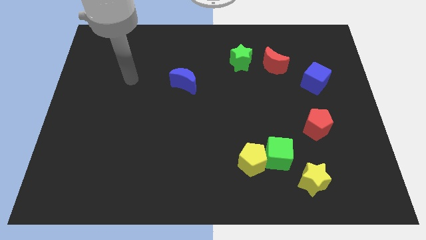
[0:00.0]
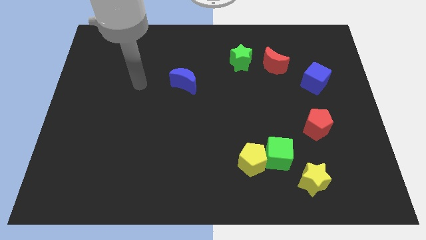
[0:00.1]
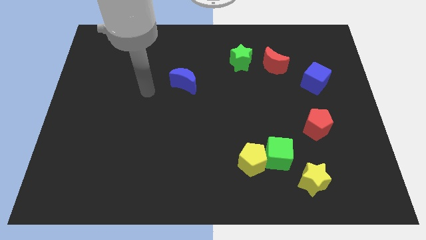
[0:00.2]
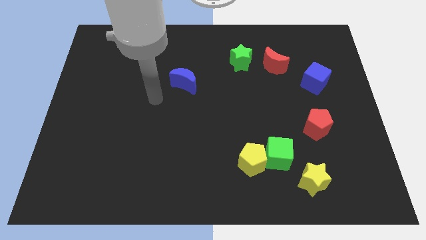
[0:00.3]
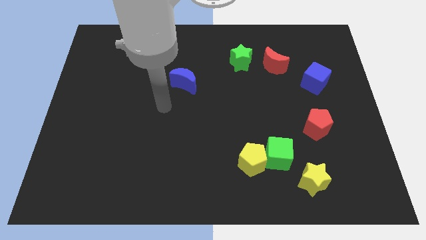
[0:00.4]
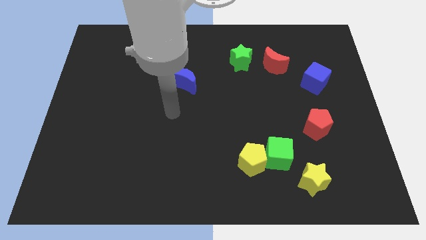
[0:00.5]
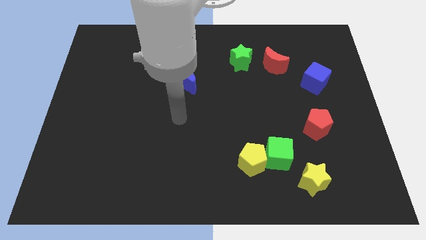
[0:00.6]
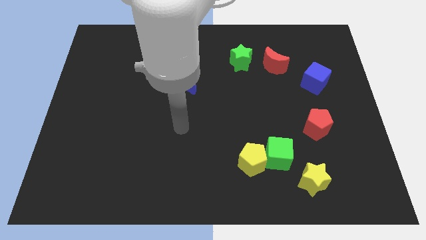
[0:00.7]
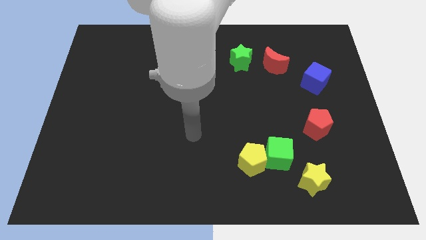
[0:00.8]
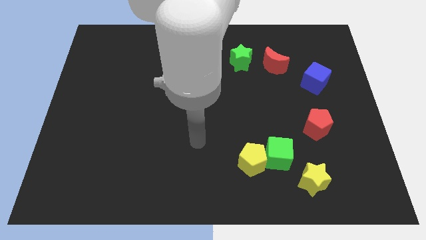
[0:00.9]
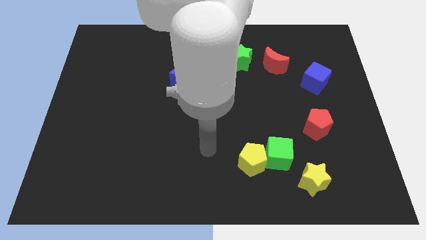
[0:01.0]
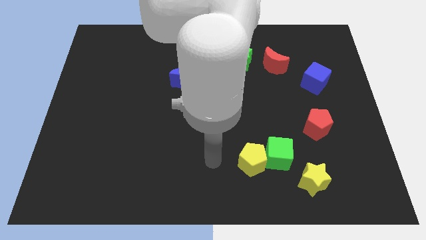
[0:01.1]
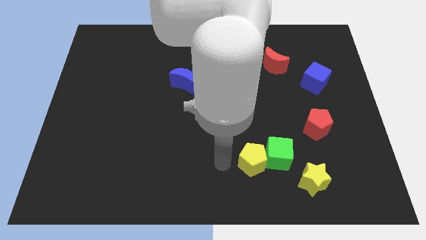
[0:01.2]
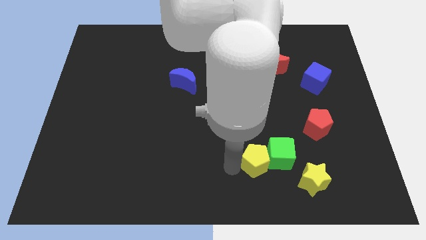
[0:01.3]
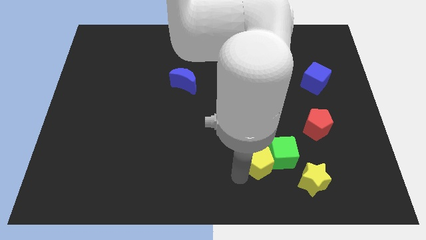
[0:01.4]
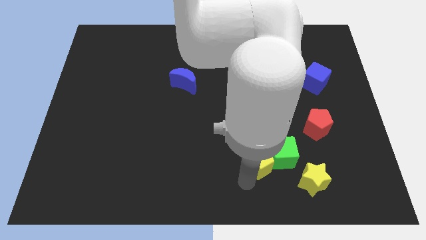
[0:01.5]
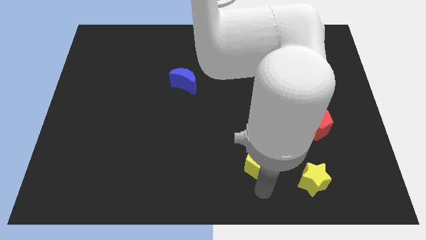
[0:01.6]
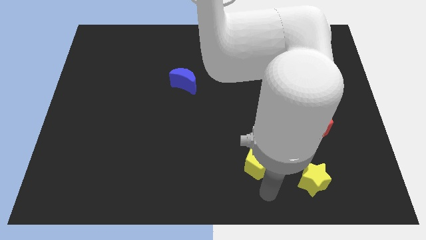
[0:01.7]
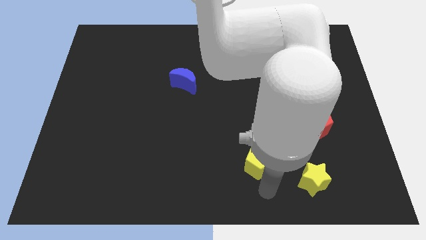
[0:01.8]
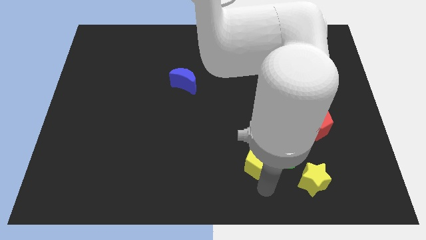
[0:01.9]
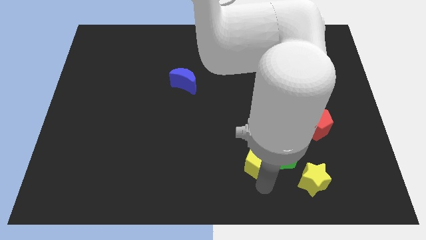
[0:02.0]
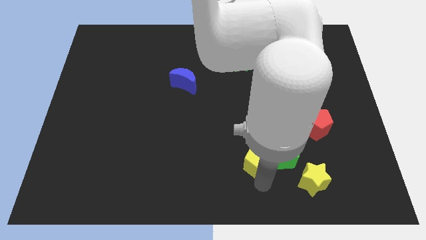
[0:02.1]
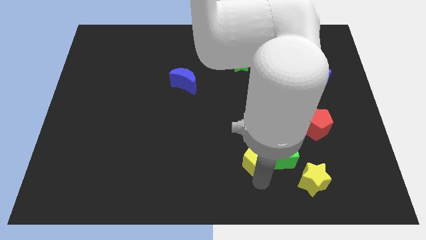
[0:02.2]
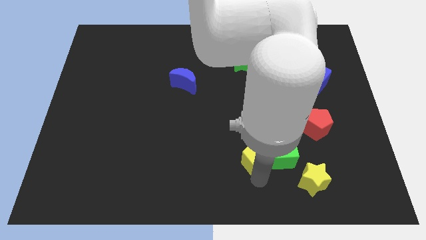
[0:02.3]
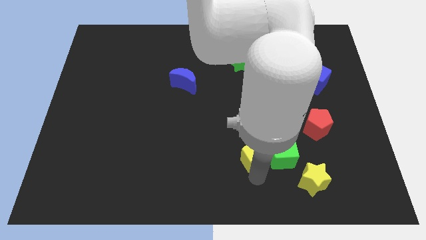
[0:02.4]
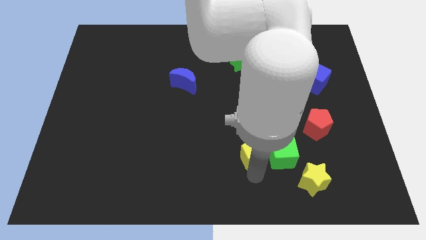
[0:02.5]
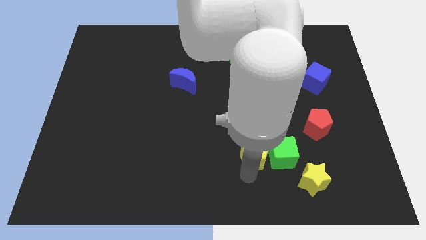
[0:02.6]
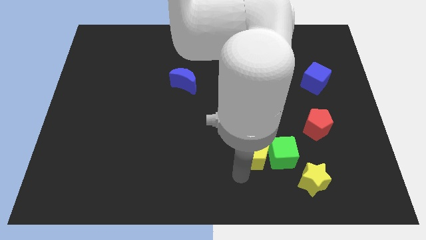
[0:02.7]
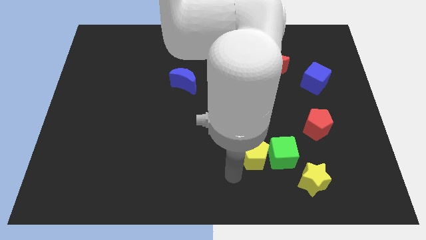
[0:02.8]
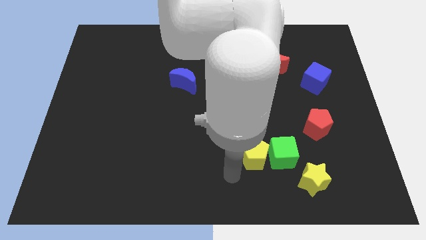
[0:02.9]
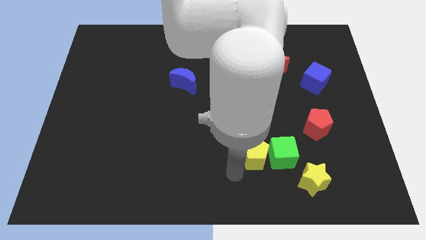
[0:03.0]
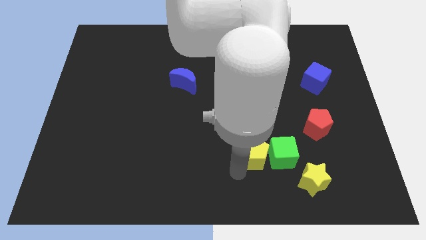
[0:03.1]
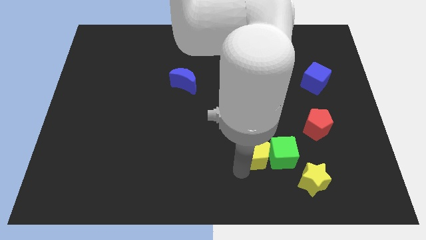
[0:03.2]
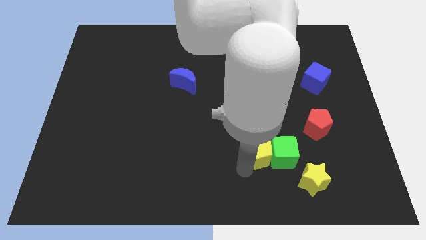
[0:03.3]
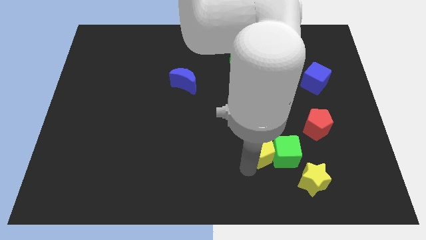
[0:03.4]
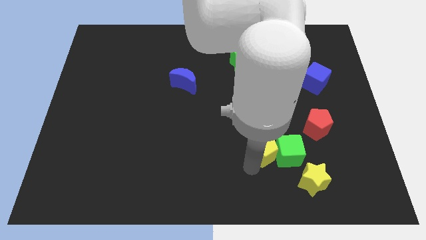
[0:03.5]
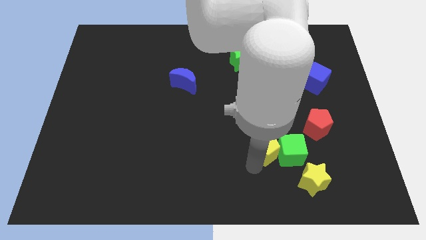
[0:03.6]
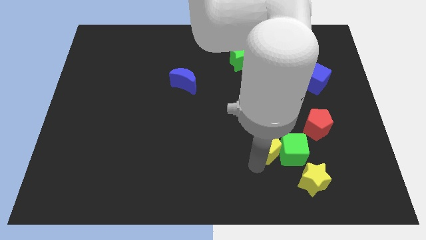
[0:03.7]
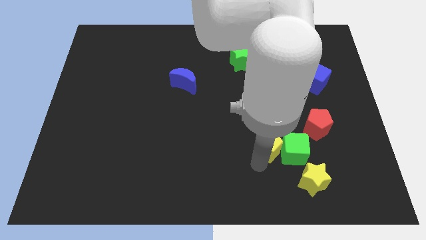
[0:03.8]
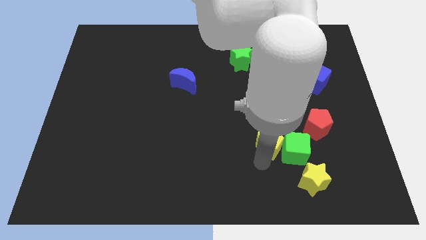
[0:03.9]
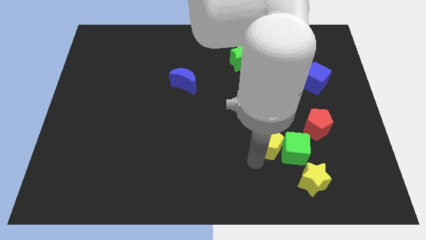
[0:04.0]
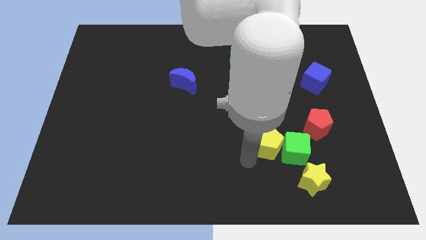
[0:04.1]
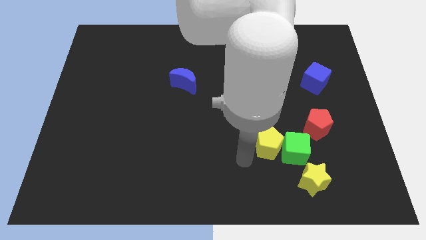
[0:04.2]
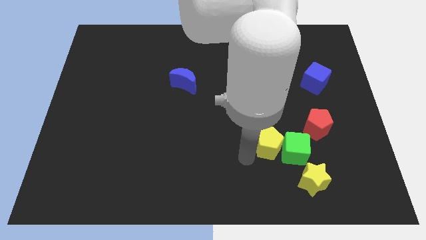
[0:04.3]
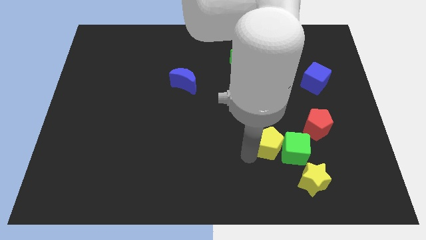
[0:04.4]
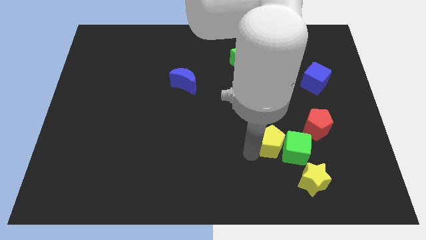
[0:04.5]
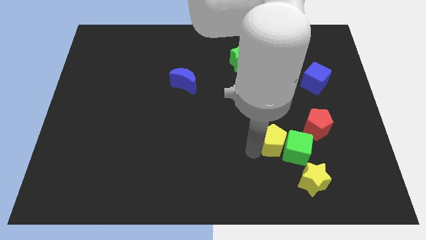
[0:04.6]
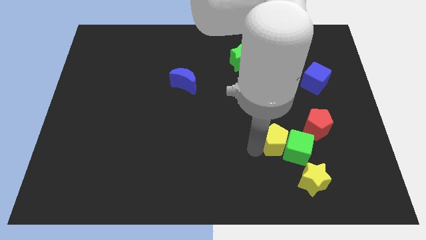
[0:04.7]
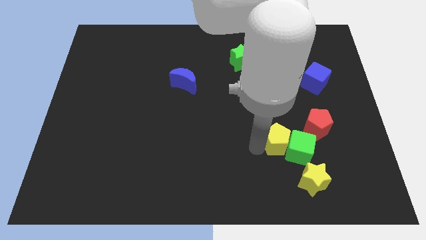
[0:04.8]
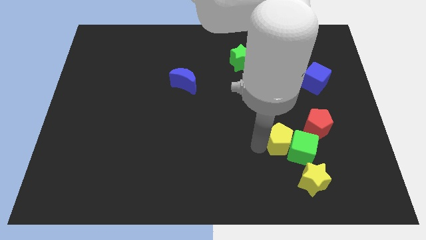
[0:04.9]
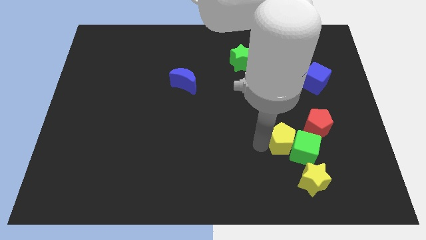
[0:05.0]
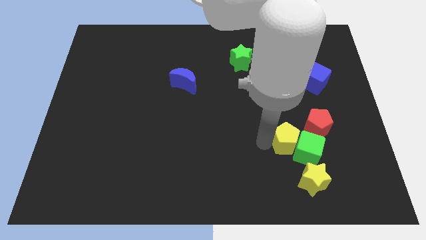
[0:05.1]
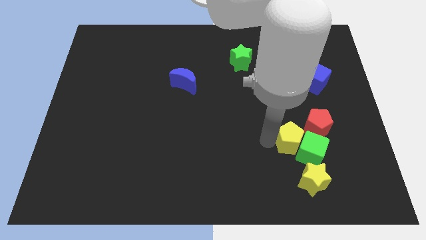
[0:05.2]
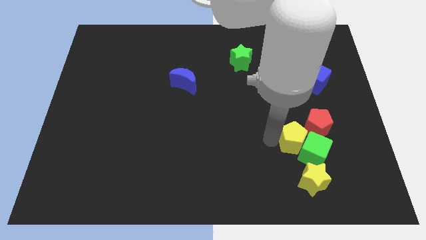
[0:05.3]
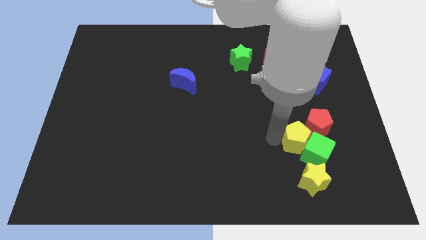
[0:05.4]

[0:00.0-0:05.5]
move the yellow pentagon close to the red pentagon

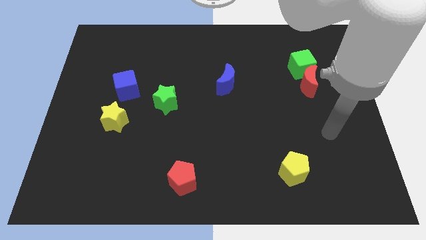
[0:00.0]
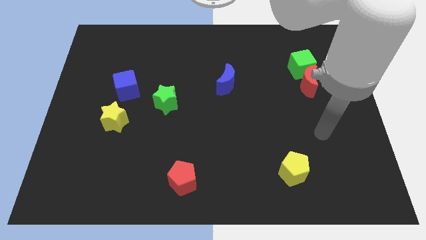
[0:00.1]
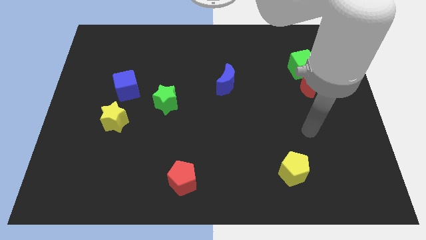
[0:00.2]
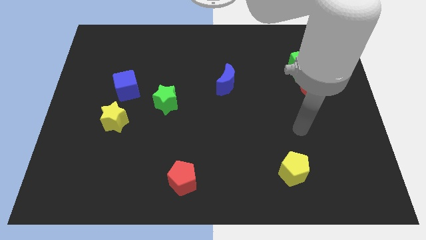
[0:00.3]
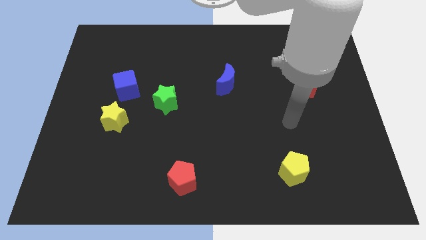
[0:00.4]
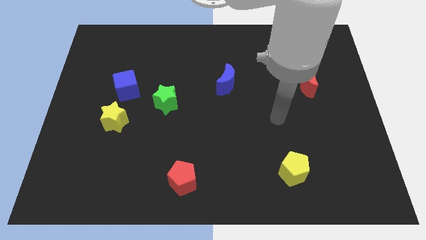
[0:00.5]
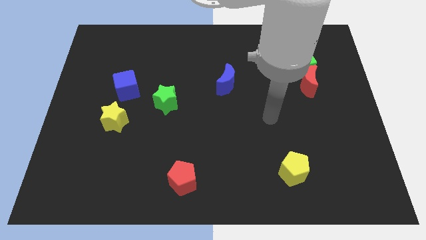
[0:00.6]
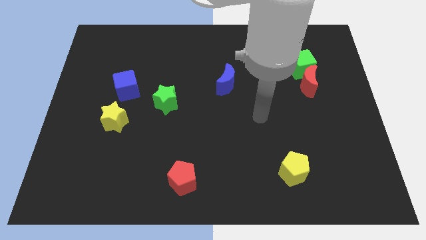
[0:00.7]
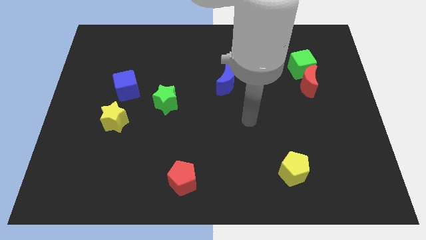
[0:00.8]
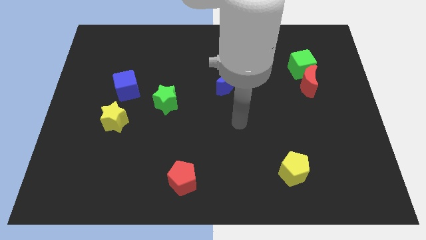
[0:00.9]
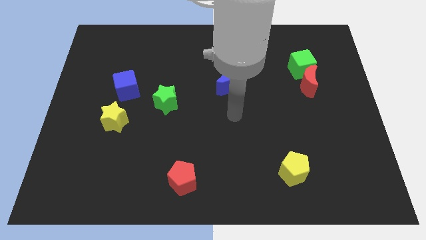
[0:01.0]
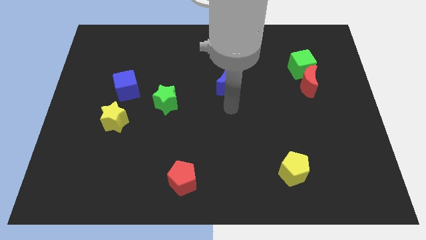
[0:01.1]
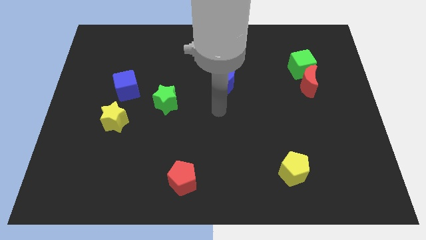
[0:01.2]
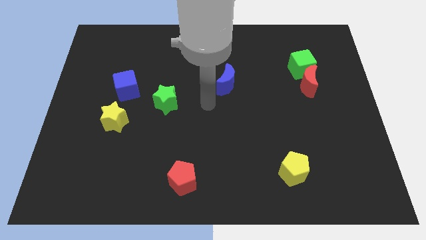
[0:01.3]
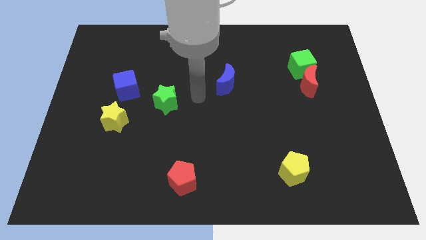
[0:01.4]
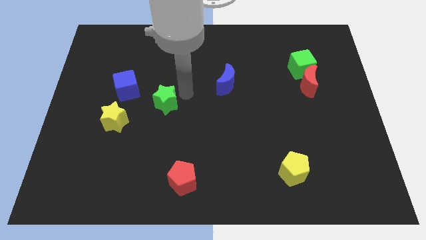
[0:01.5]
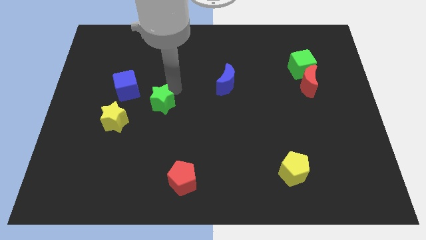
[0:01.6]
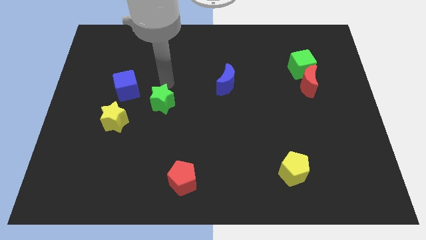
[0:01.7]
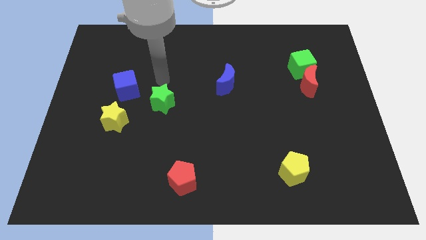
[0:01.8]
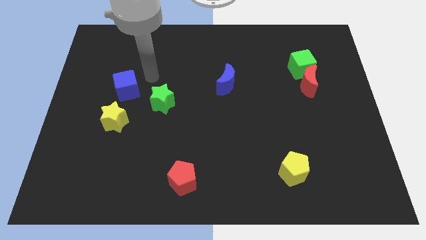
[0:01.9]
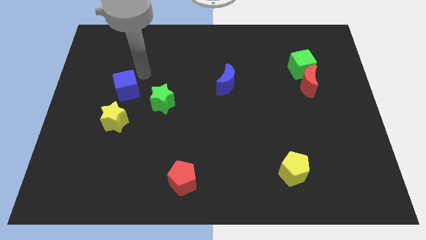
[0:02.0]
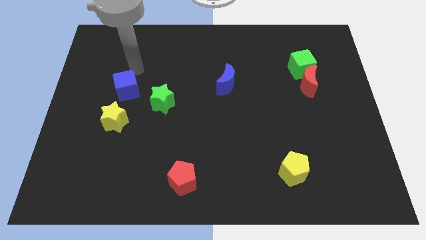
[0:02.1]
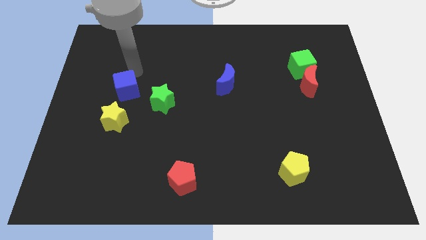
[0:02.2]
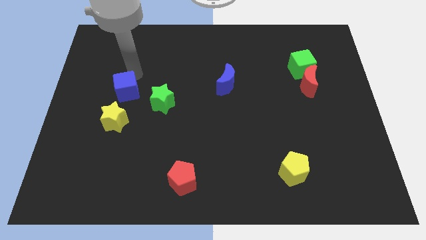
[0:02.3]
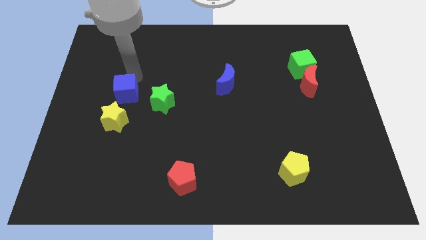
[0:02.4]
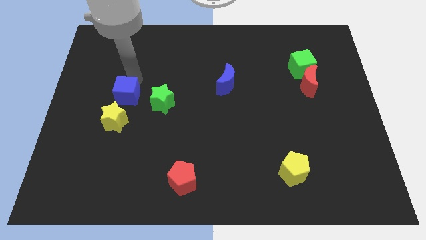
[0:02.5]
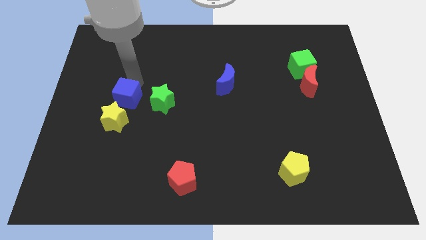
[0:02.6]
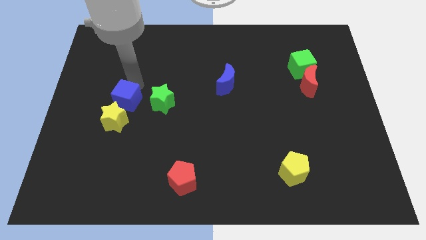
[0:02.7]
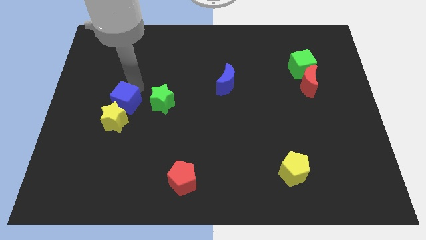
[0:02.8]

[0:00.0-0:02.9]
put the blue cube close to the yellow star
